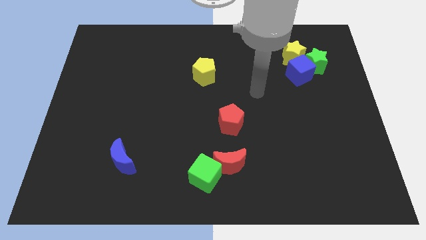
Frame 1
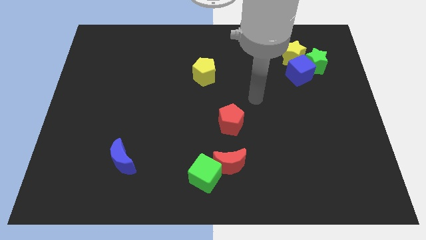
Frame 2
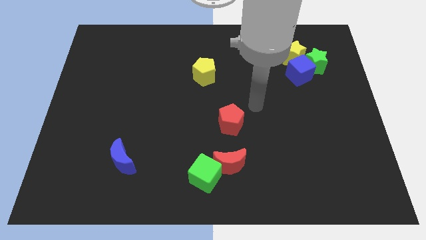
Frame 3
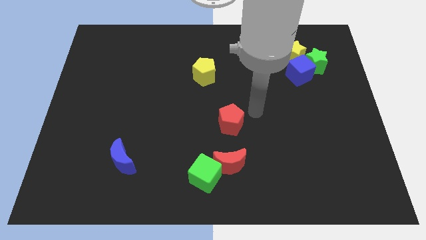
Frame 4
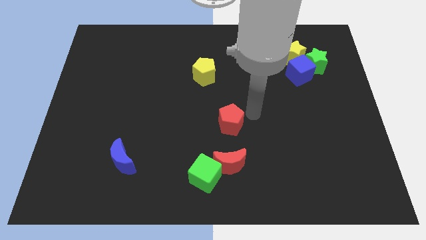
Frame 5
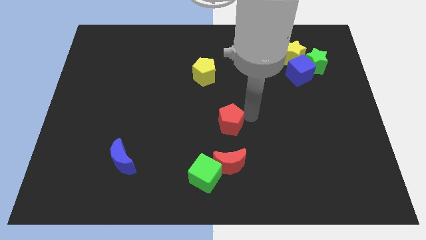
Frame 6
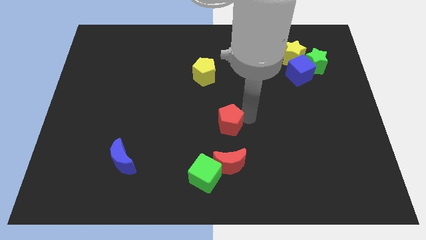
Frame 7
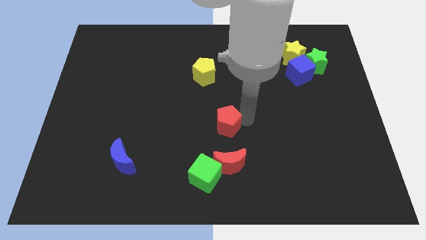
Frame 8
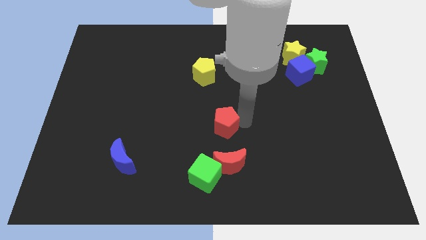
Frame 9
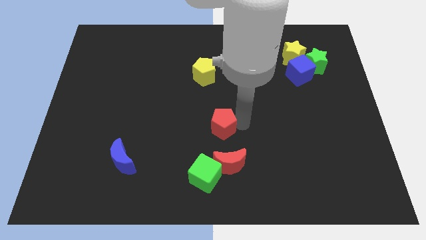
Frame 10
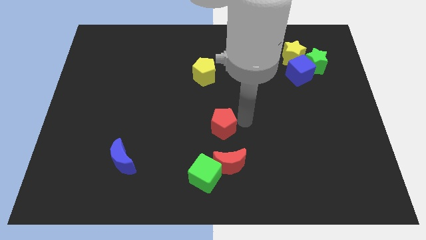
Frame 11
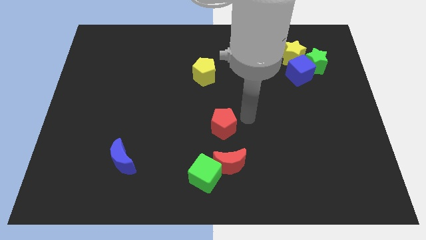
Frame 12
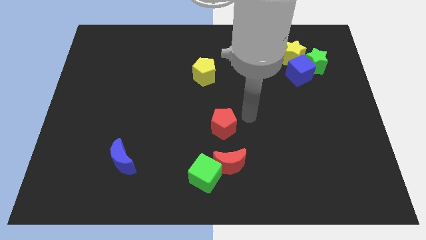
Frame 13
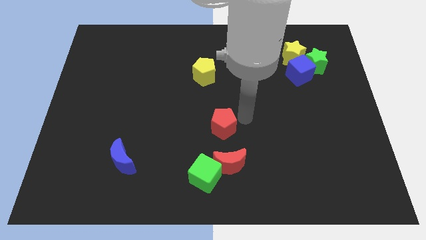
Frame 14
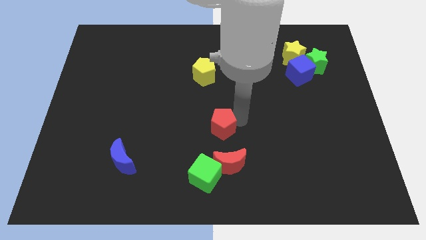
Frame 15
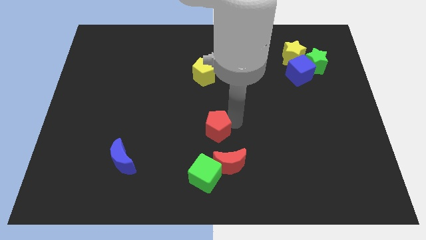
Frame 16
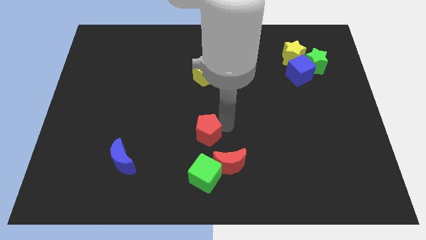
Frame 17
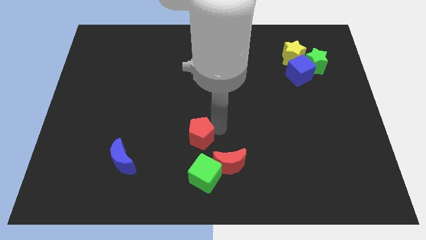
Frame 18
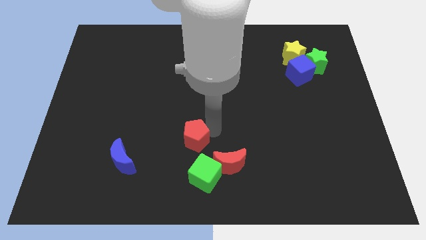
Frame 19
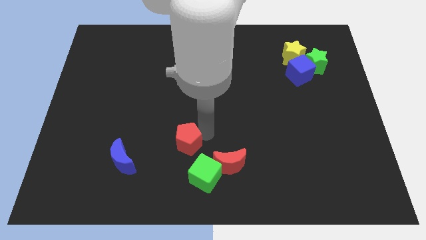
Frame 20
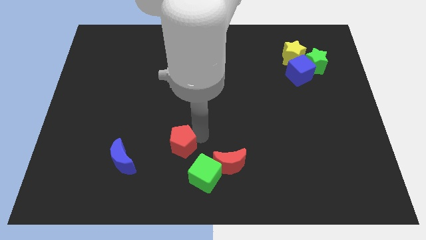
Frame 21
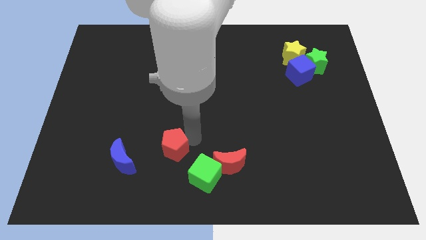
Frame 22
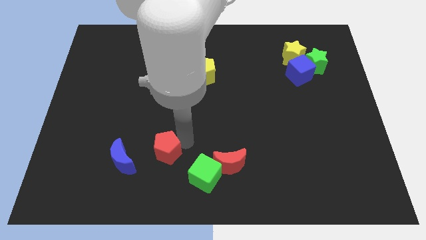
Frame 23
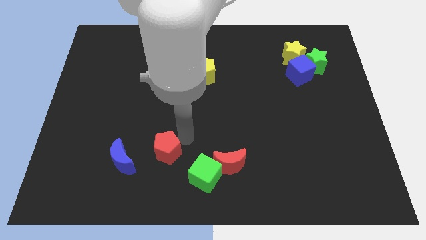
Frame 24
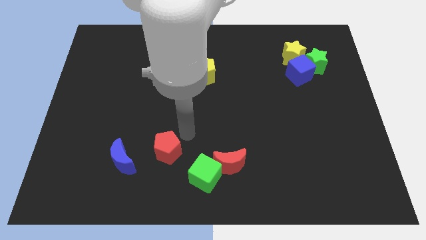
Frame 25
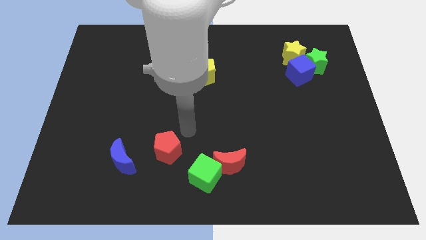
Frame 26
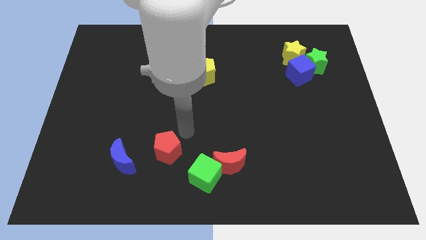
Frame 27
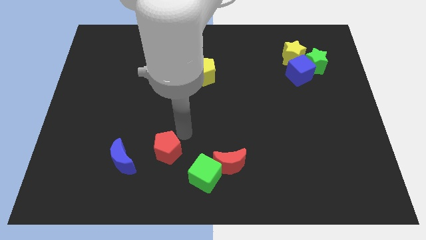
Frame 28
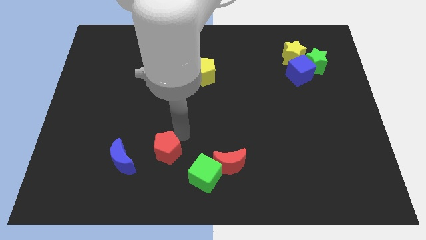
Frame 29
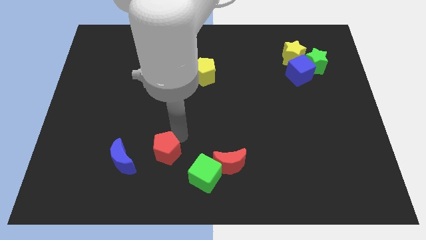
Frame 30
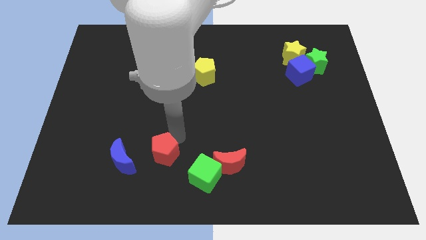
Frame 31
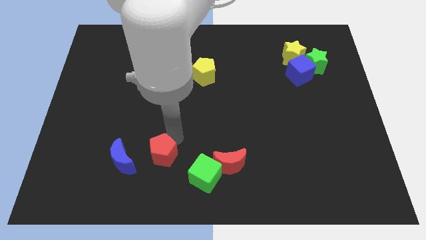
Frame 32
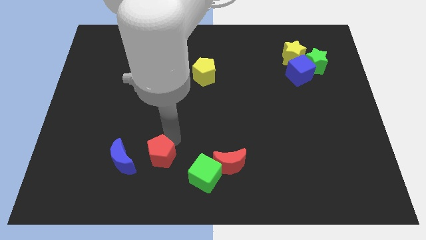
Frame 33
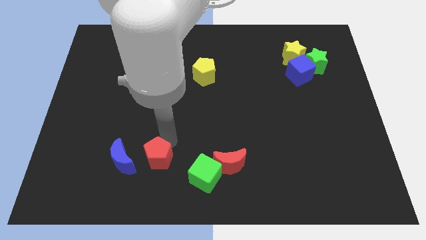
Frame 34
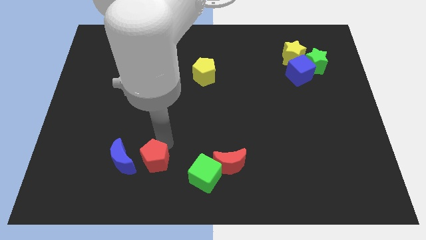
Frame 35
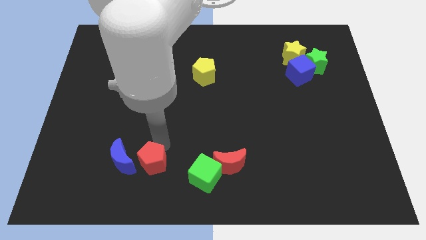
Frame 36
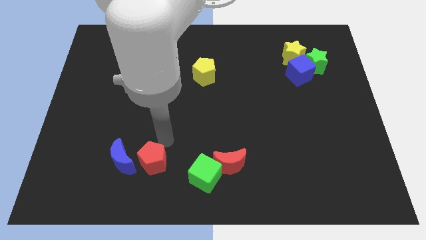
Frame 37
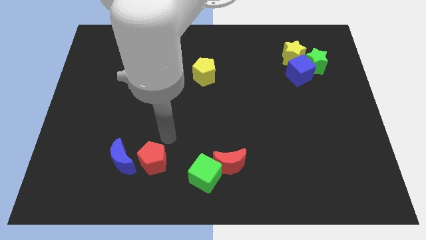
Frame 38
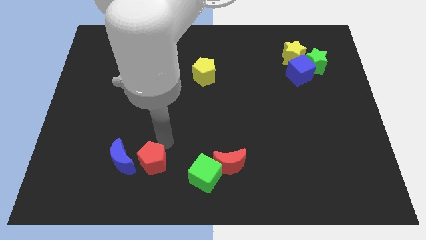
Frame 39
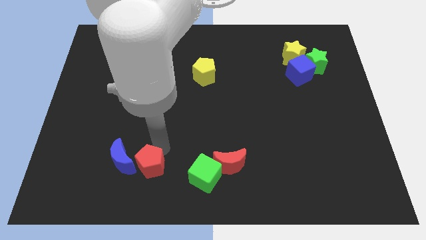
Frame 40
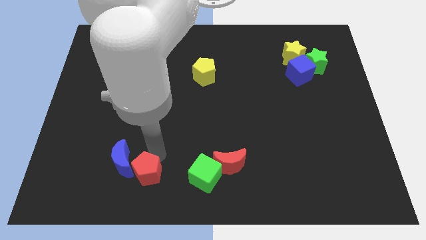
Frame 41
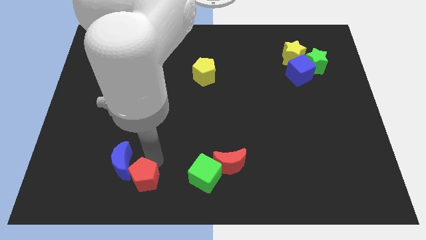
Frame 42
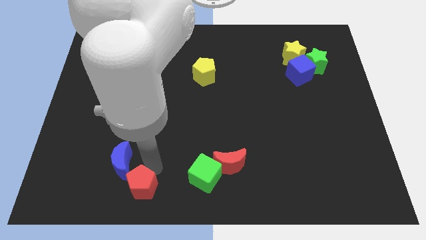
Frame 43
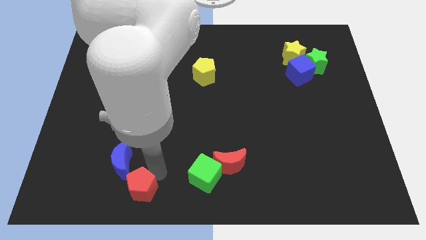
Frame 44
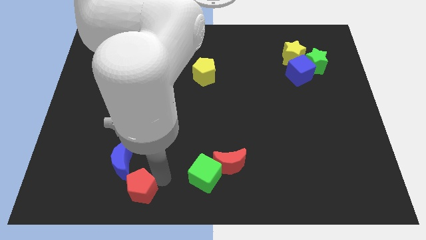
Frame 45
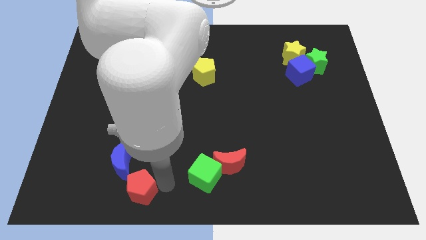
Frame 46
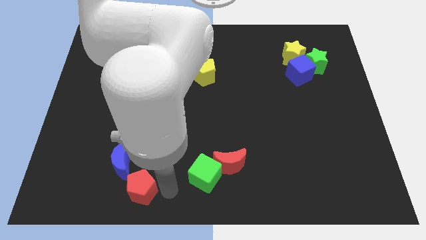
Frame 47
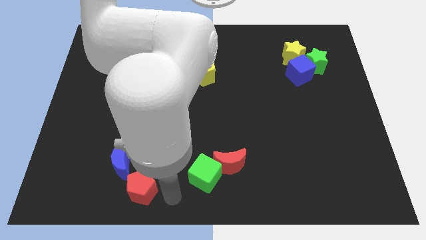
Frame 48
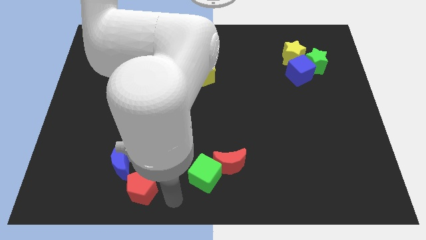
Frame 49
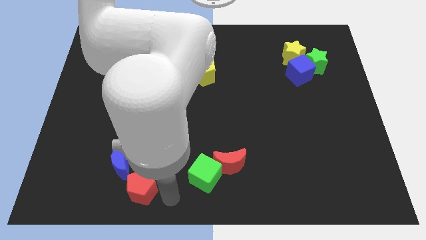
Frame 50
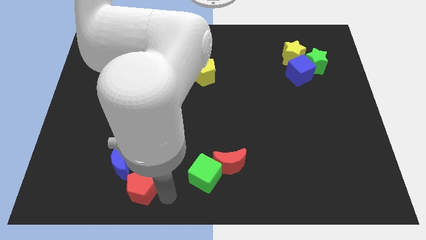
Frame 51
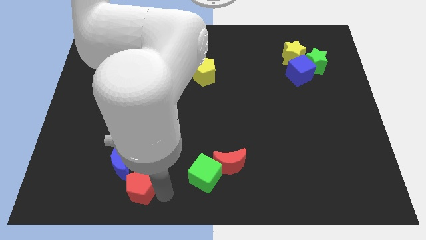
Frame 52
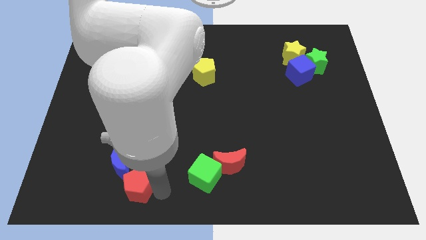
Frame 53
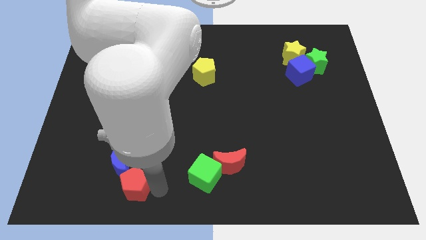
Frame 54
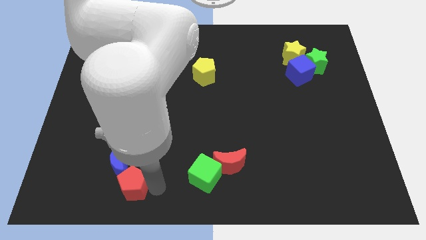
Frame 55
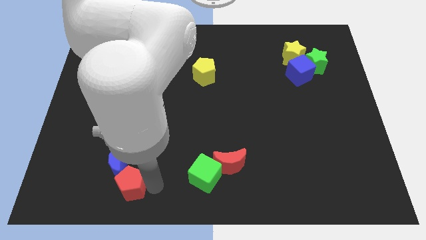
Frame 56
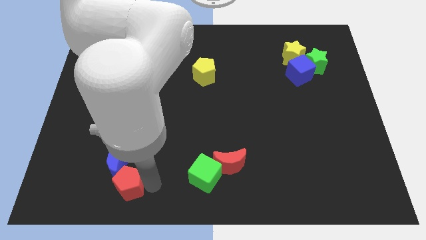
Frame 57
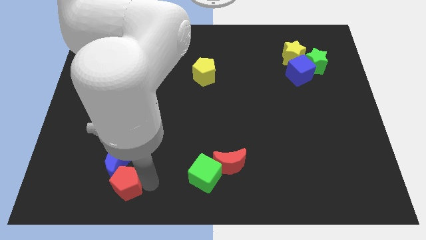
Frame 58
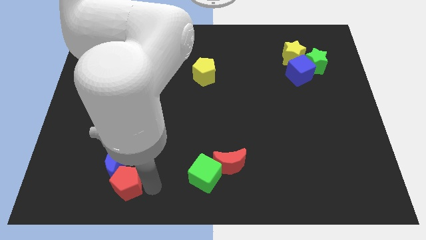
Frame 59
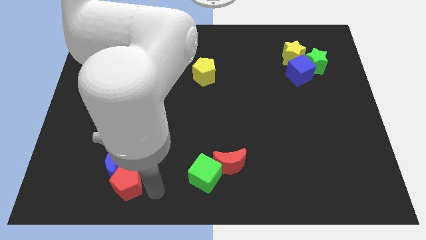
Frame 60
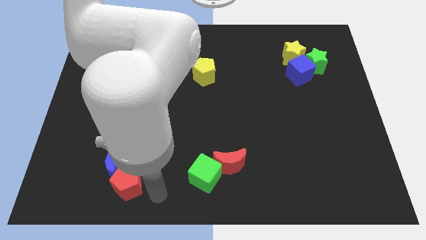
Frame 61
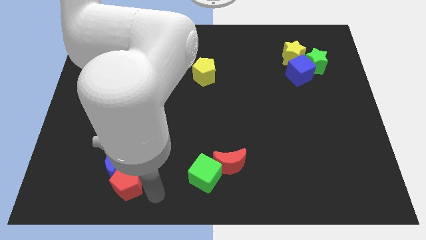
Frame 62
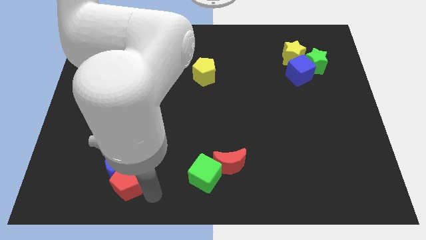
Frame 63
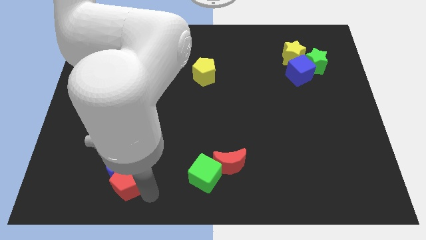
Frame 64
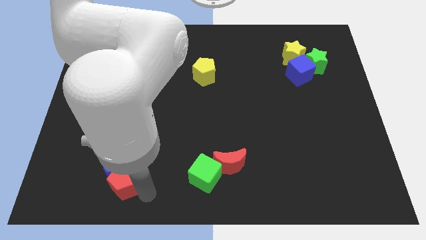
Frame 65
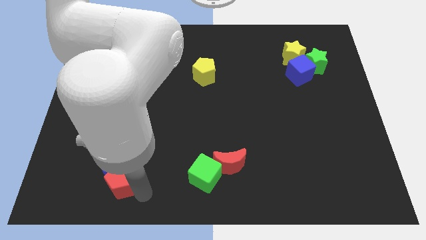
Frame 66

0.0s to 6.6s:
push the red pentagon to the bottom left of the blue moon

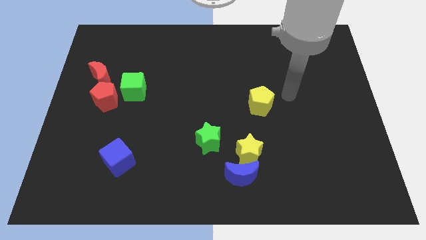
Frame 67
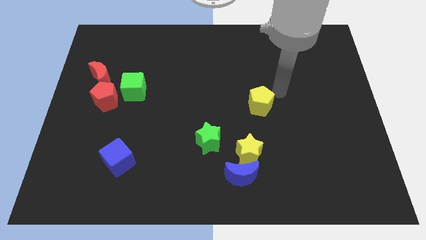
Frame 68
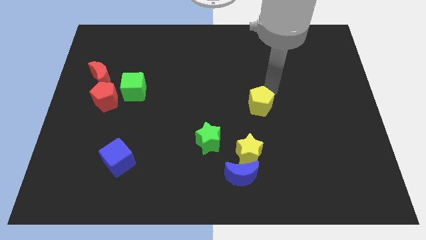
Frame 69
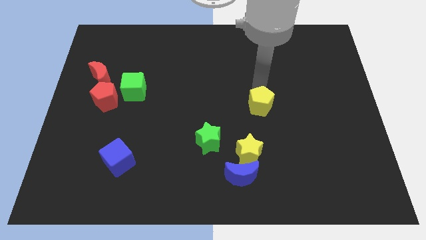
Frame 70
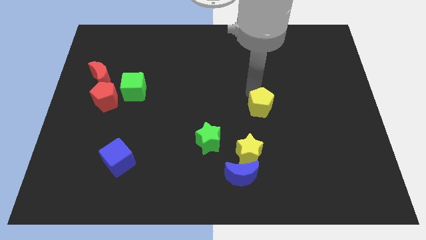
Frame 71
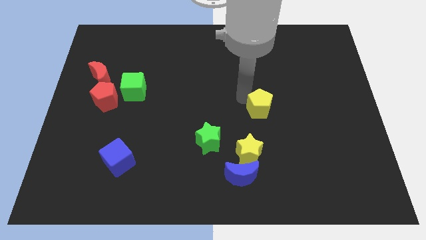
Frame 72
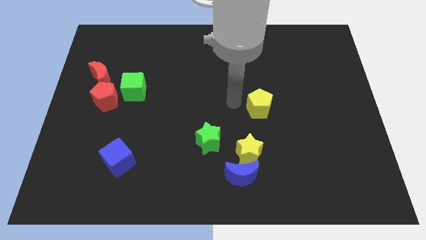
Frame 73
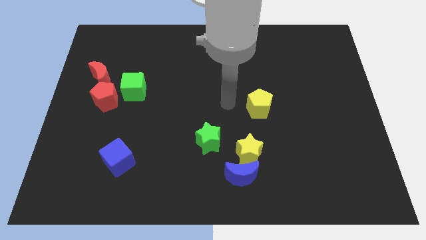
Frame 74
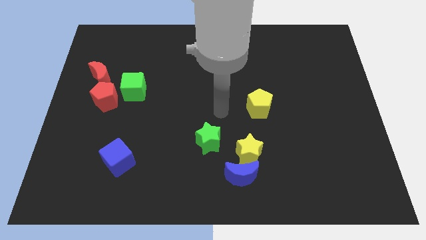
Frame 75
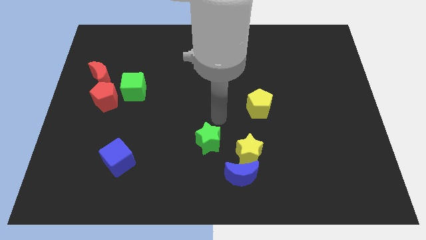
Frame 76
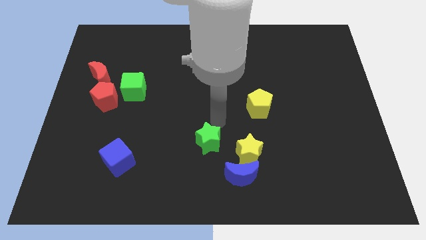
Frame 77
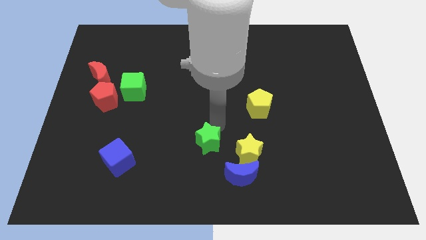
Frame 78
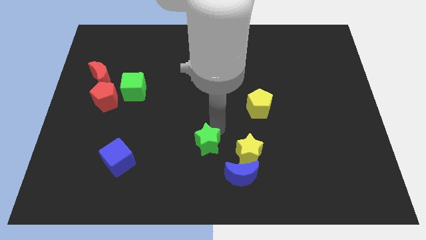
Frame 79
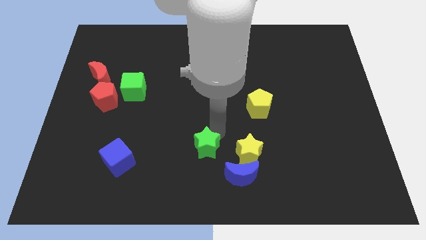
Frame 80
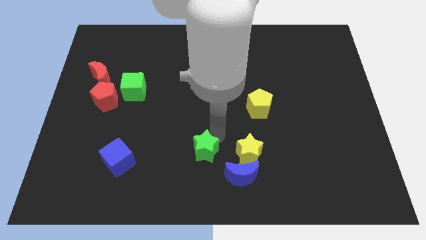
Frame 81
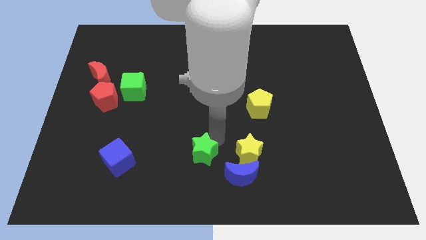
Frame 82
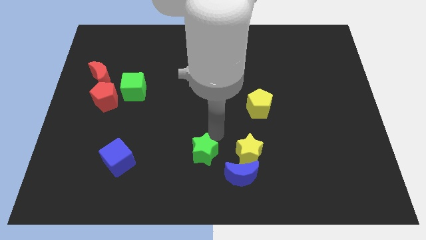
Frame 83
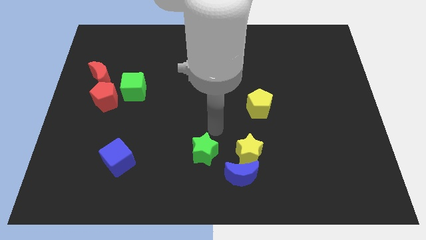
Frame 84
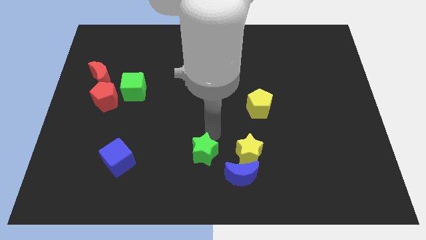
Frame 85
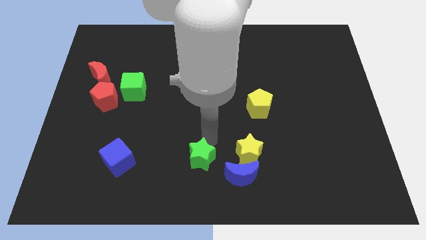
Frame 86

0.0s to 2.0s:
move the green star to the left side of the blue moon
